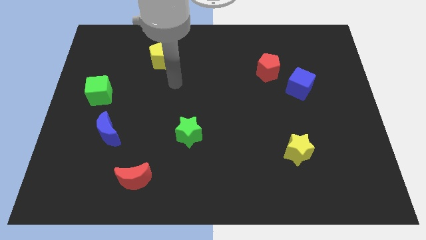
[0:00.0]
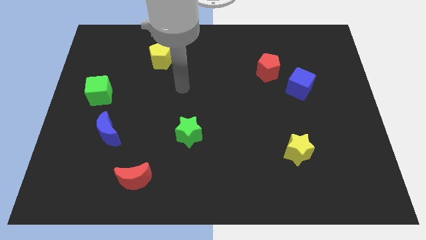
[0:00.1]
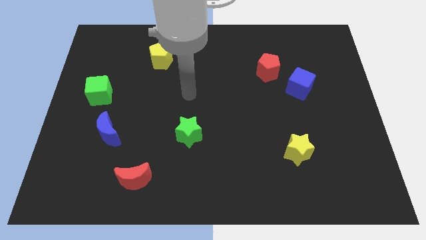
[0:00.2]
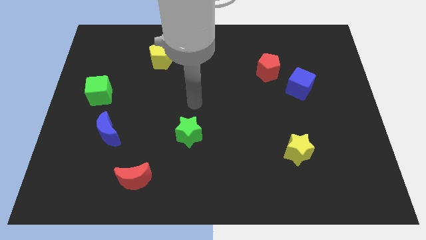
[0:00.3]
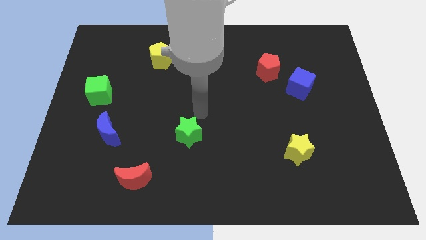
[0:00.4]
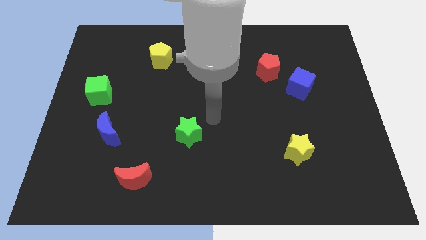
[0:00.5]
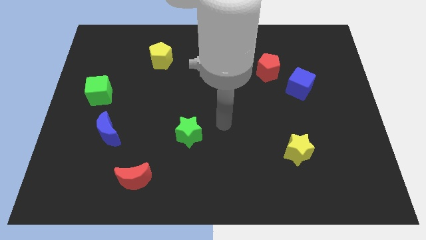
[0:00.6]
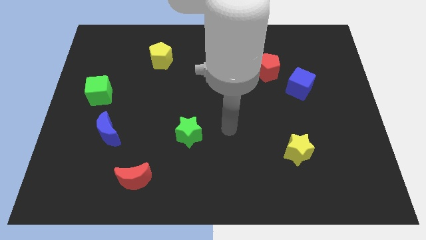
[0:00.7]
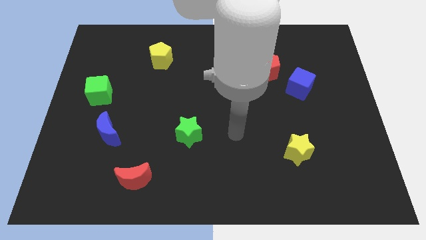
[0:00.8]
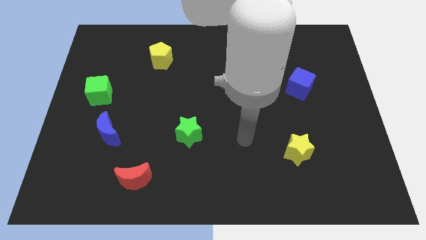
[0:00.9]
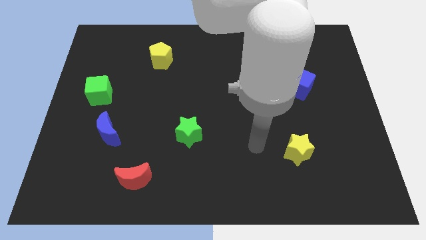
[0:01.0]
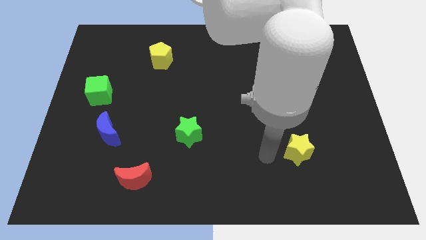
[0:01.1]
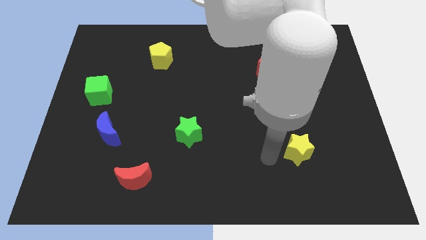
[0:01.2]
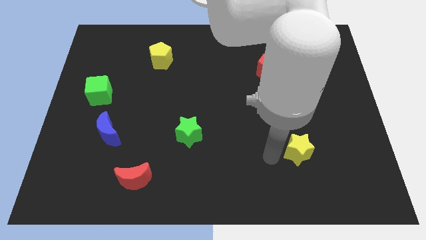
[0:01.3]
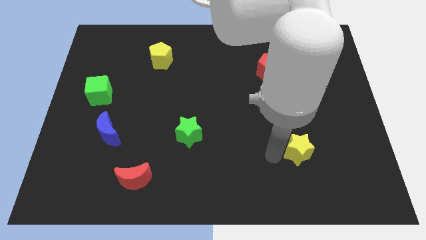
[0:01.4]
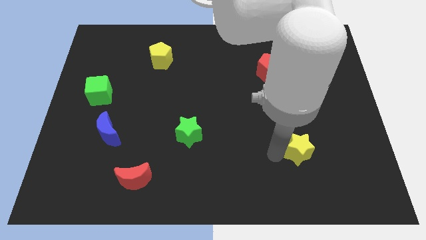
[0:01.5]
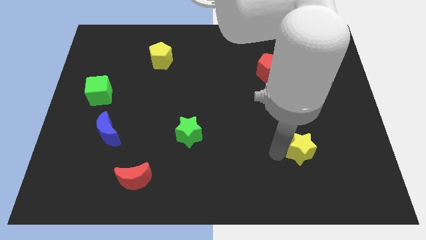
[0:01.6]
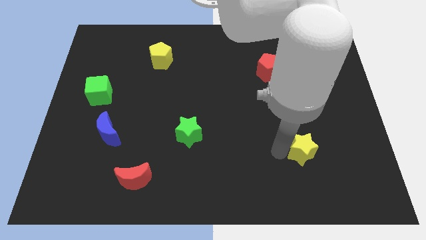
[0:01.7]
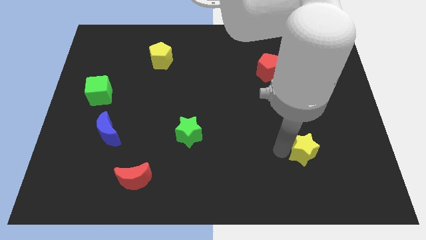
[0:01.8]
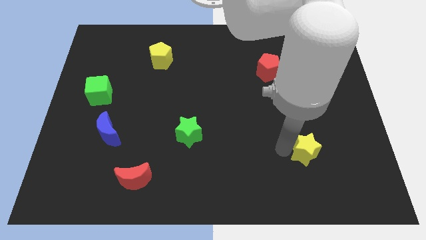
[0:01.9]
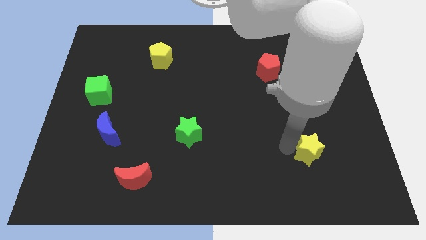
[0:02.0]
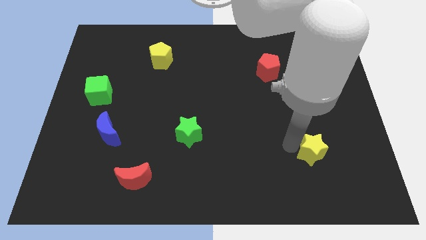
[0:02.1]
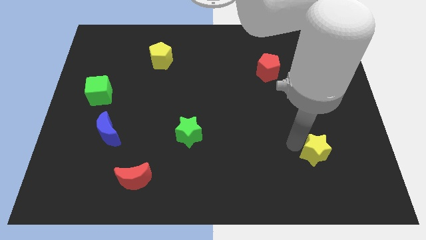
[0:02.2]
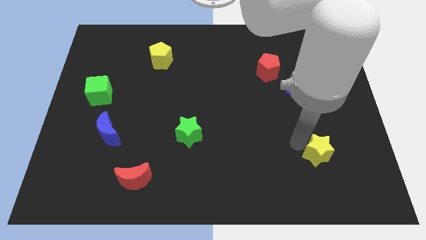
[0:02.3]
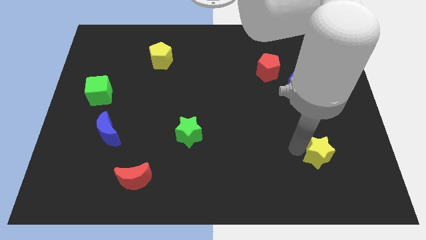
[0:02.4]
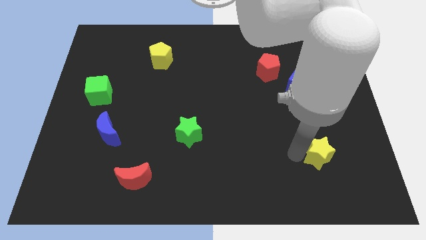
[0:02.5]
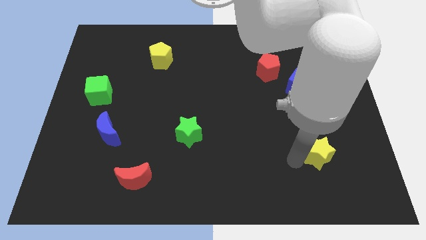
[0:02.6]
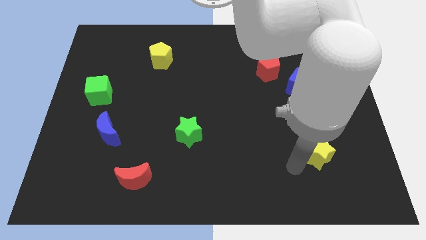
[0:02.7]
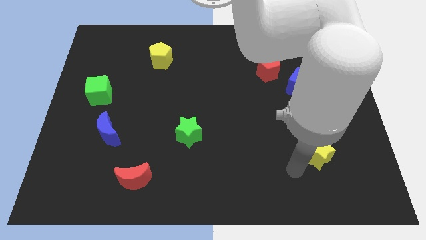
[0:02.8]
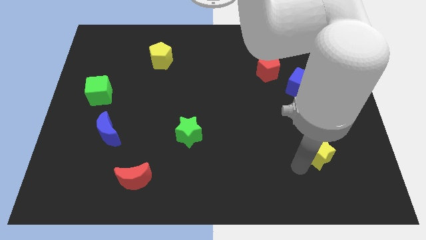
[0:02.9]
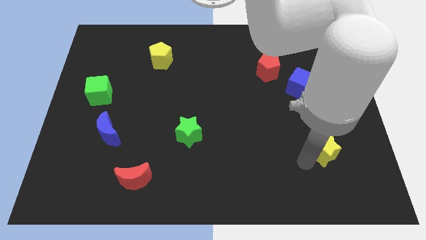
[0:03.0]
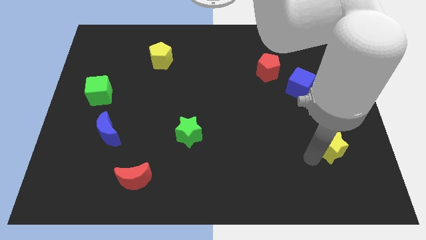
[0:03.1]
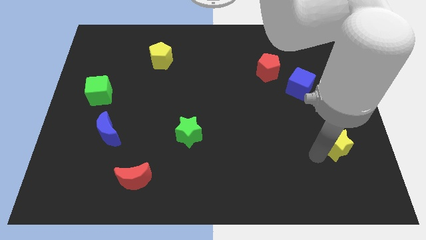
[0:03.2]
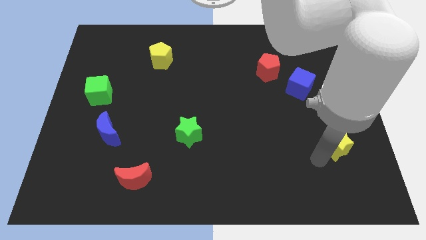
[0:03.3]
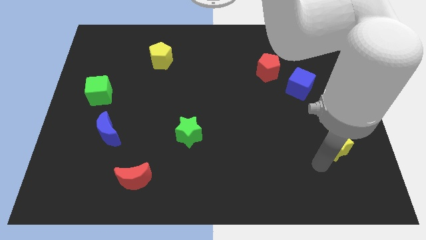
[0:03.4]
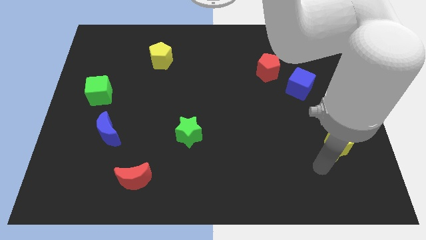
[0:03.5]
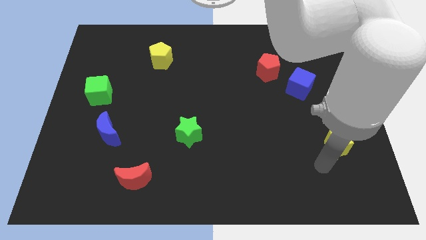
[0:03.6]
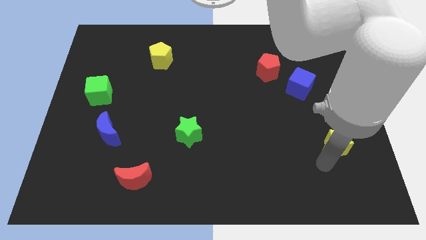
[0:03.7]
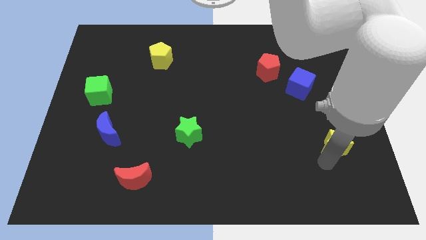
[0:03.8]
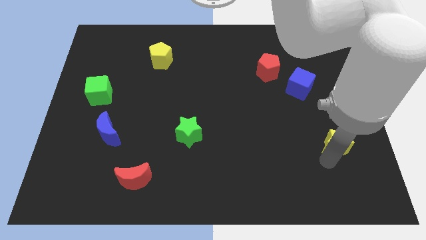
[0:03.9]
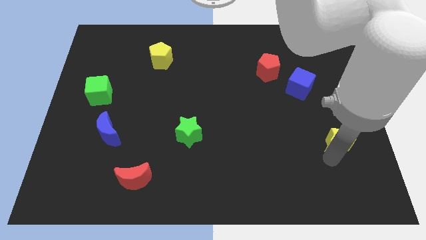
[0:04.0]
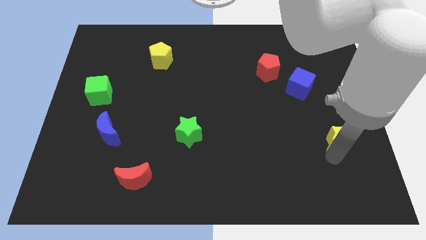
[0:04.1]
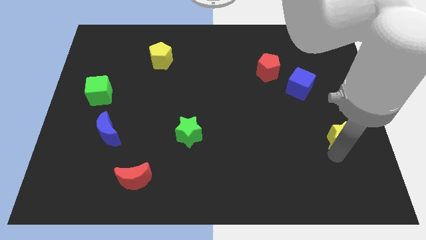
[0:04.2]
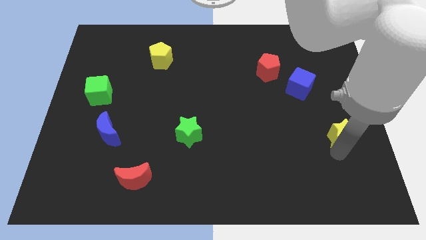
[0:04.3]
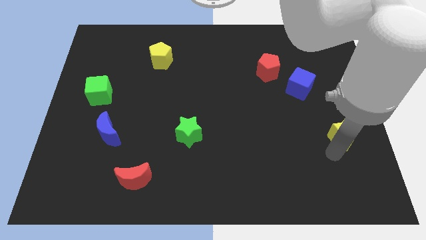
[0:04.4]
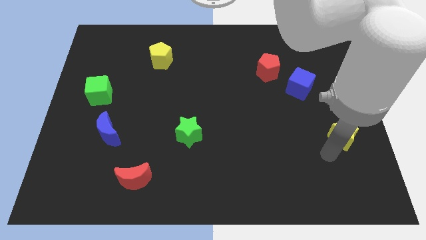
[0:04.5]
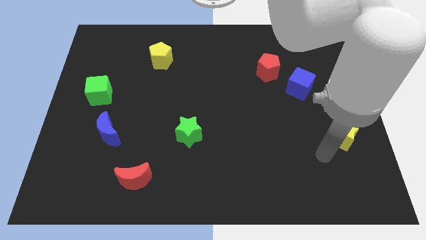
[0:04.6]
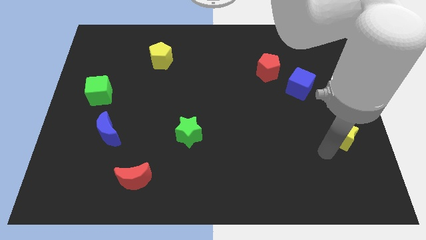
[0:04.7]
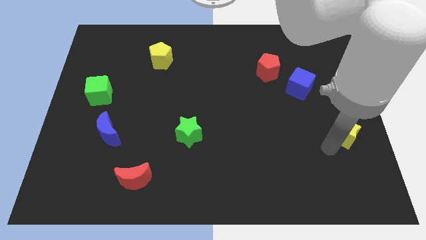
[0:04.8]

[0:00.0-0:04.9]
push the yellow star to the center right

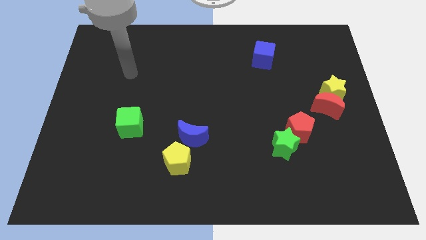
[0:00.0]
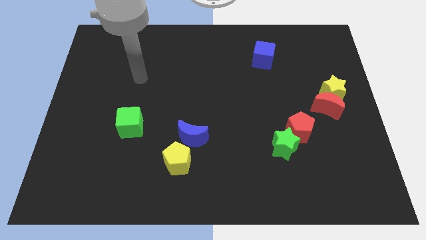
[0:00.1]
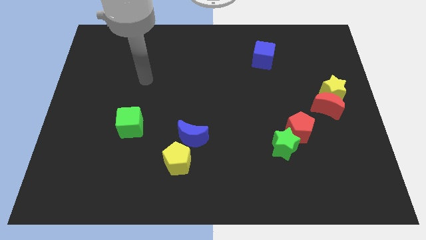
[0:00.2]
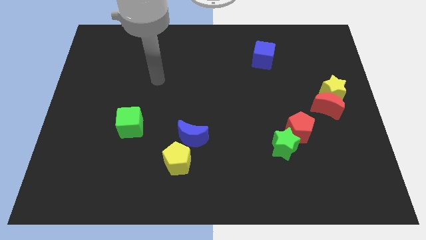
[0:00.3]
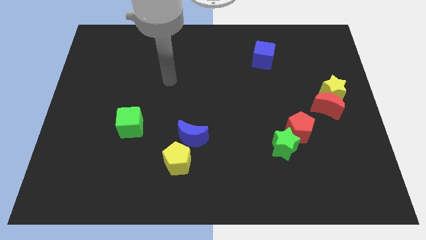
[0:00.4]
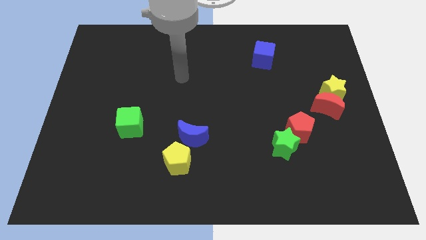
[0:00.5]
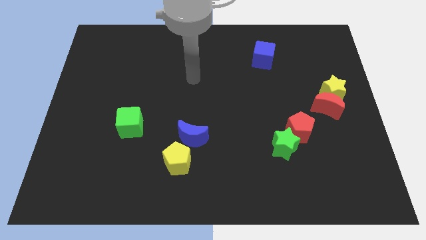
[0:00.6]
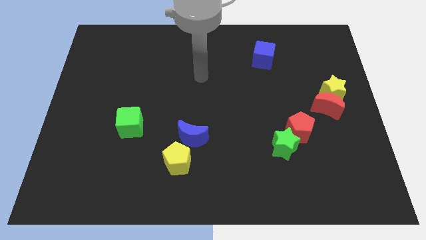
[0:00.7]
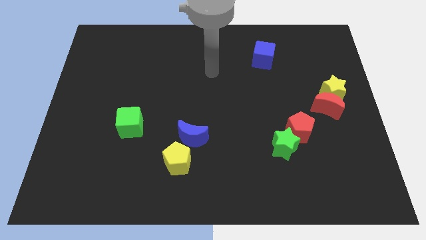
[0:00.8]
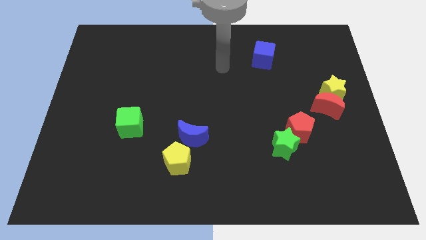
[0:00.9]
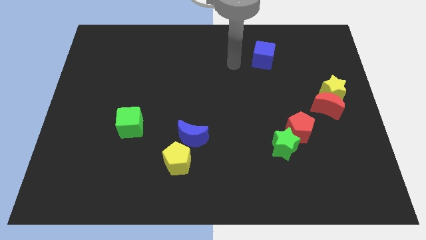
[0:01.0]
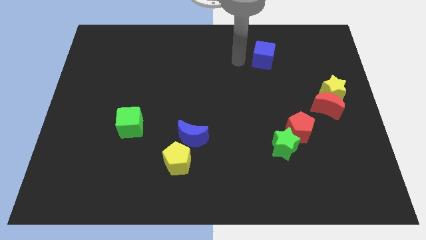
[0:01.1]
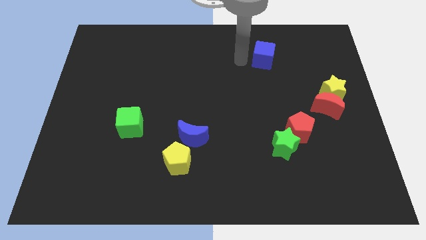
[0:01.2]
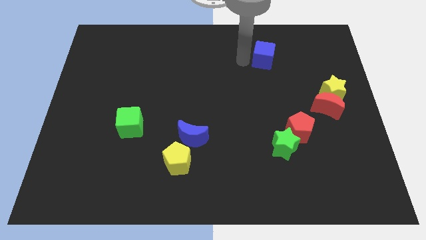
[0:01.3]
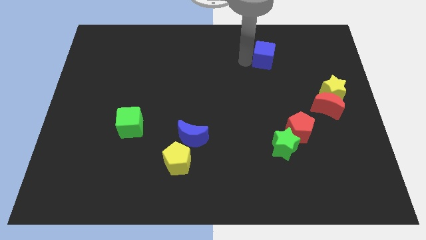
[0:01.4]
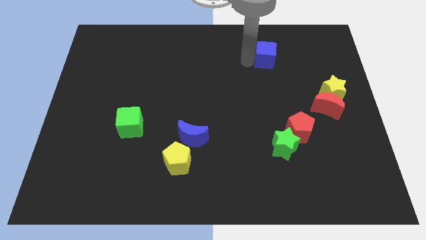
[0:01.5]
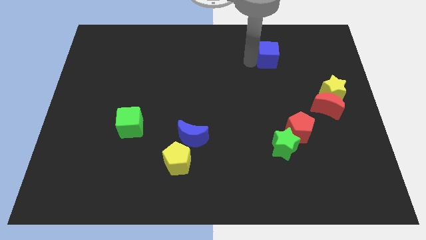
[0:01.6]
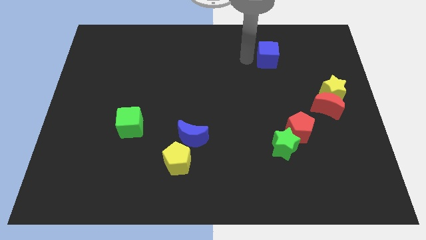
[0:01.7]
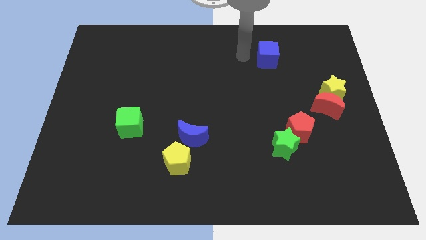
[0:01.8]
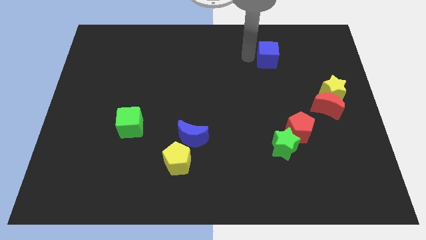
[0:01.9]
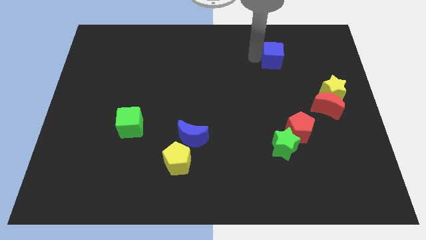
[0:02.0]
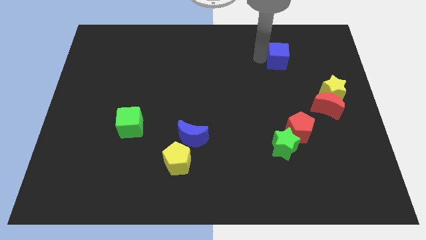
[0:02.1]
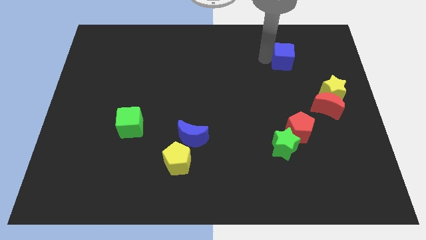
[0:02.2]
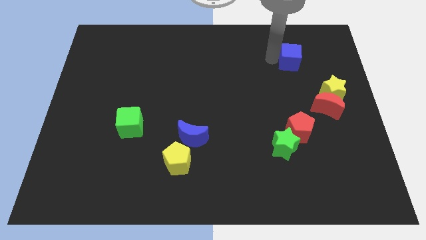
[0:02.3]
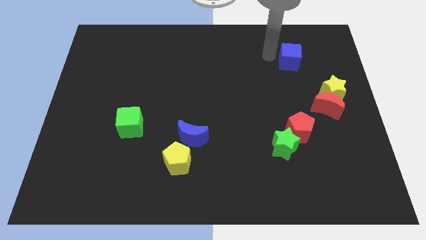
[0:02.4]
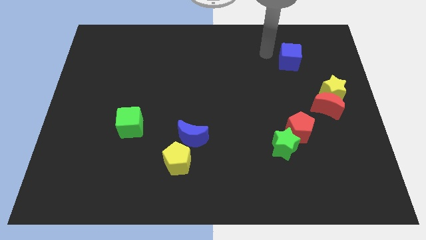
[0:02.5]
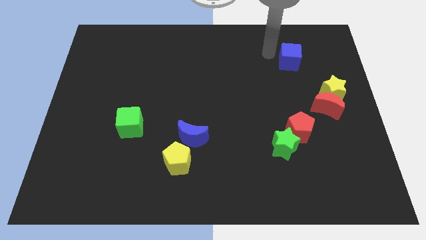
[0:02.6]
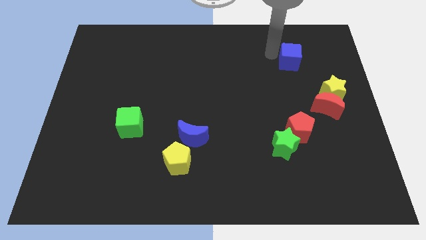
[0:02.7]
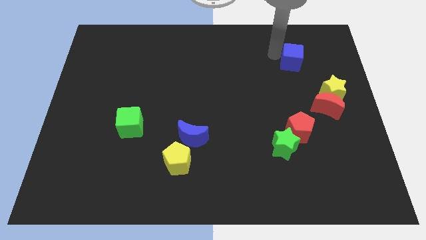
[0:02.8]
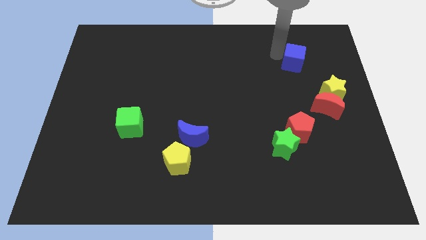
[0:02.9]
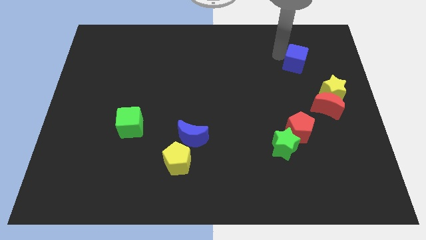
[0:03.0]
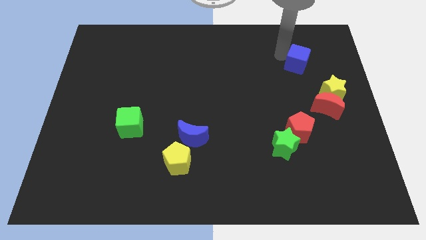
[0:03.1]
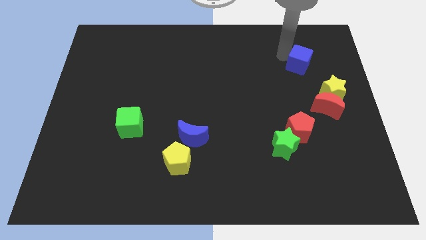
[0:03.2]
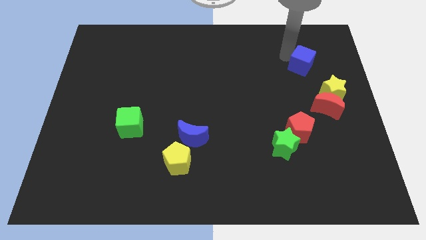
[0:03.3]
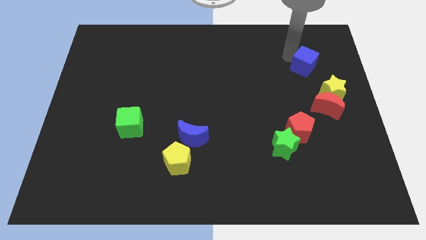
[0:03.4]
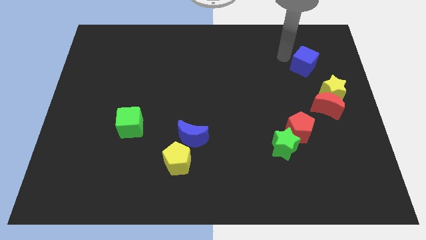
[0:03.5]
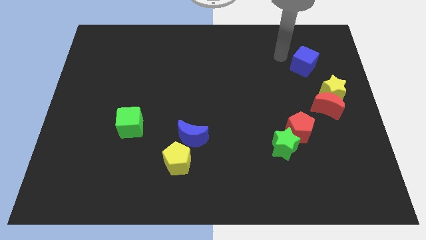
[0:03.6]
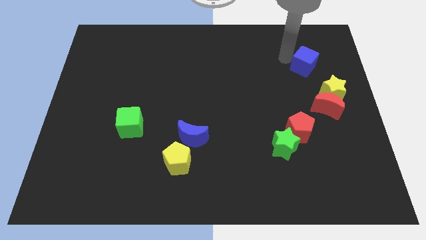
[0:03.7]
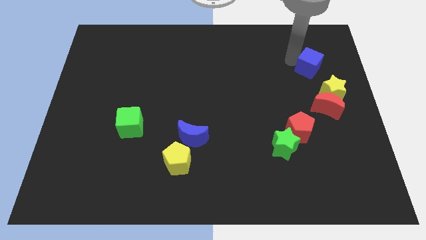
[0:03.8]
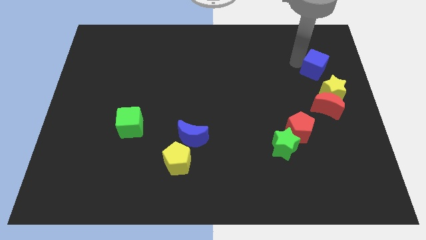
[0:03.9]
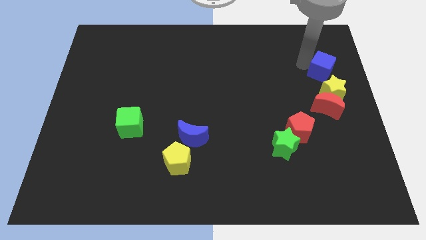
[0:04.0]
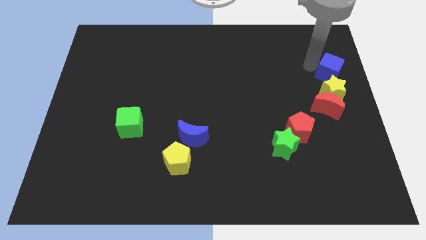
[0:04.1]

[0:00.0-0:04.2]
put the blue cube to the center right
